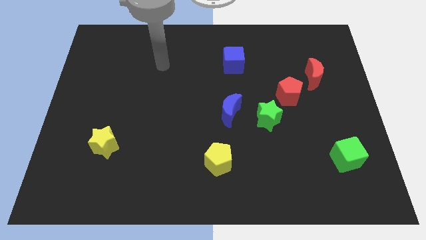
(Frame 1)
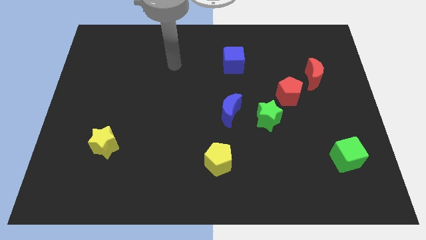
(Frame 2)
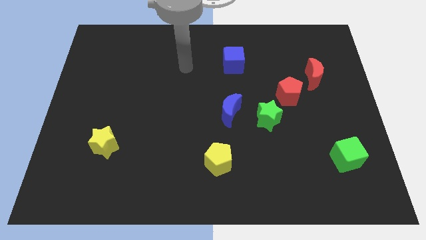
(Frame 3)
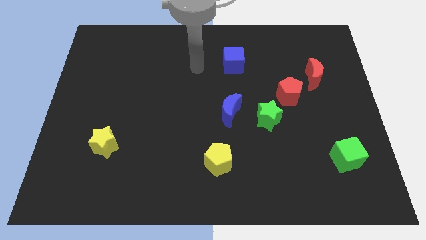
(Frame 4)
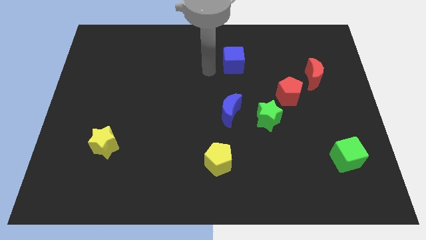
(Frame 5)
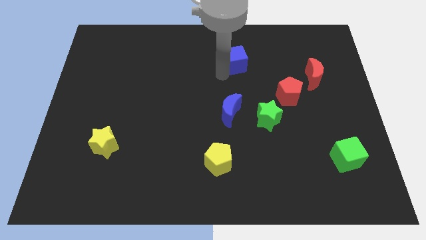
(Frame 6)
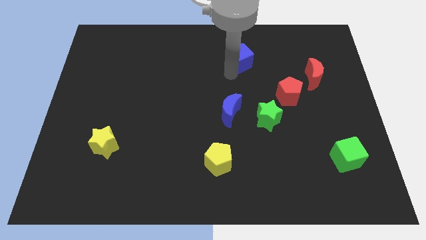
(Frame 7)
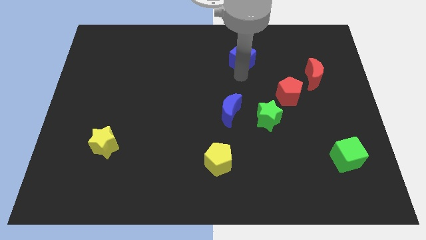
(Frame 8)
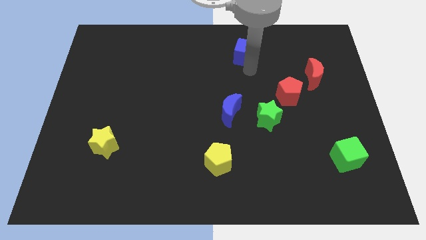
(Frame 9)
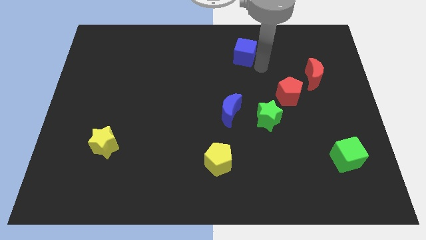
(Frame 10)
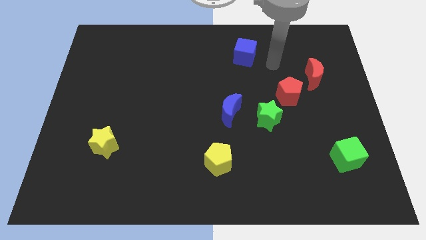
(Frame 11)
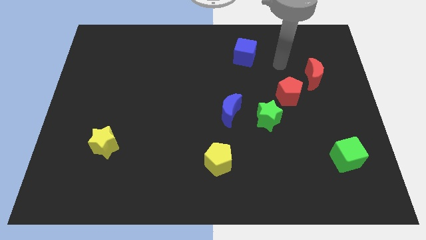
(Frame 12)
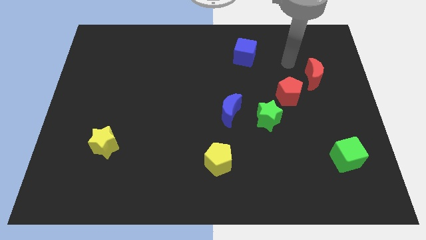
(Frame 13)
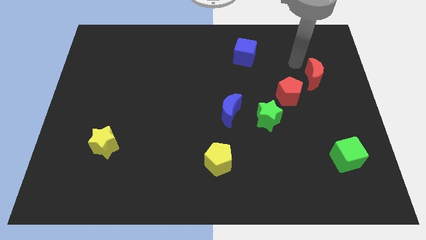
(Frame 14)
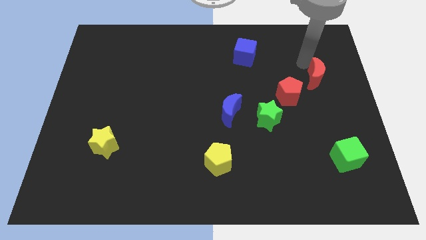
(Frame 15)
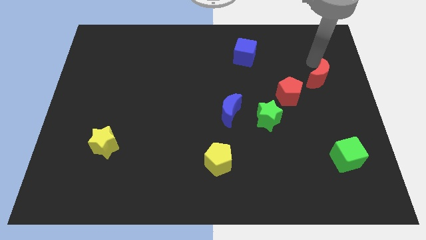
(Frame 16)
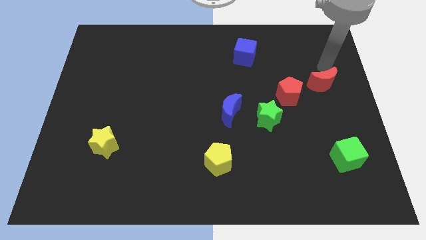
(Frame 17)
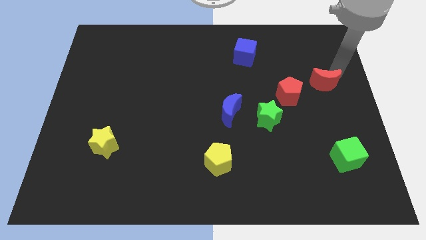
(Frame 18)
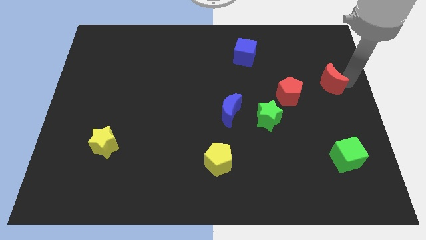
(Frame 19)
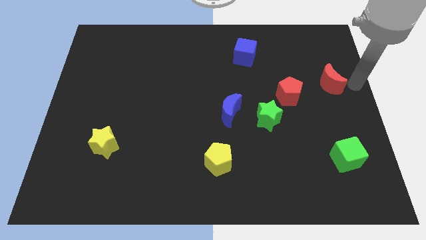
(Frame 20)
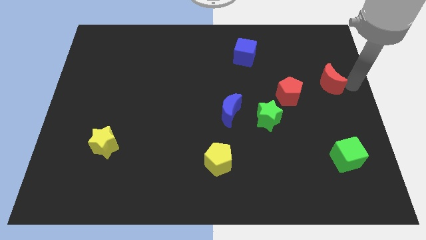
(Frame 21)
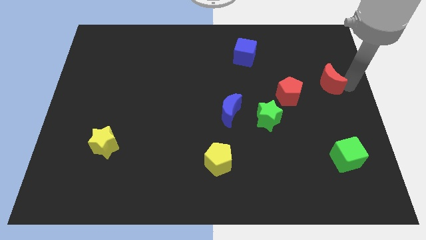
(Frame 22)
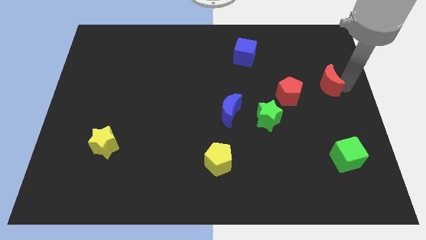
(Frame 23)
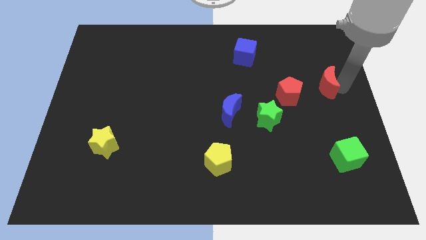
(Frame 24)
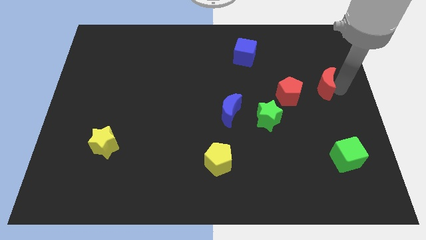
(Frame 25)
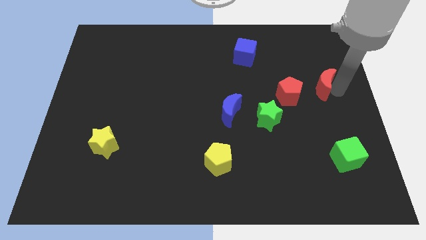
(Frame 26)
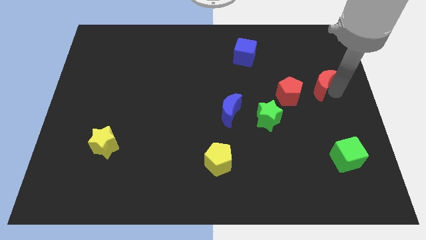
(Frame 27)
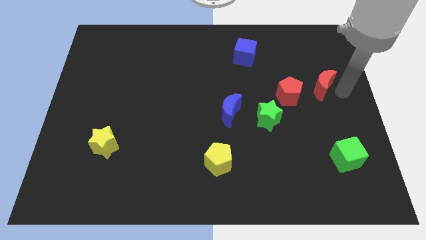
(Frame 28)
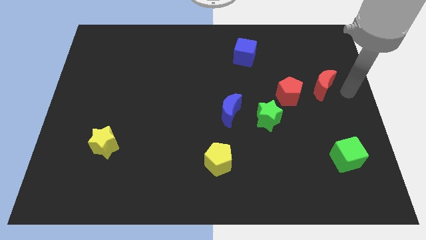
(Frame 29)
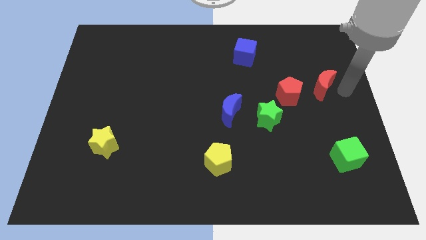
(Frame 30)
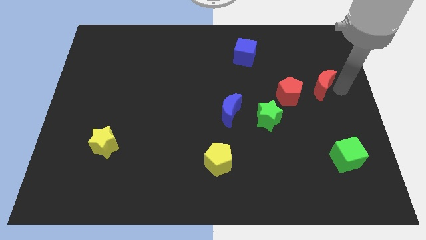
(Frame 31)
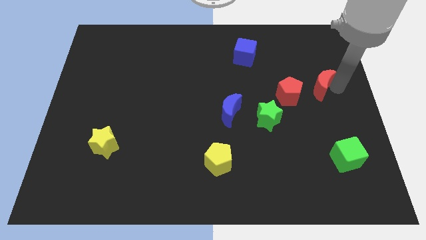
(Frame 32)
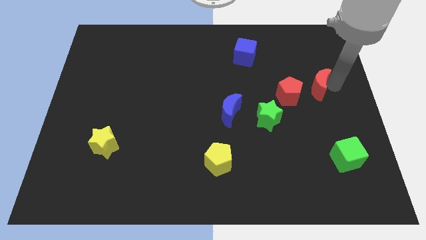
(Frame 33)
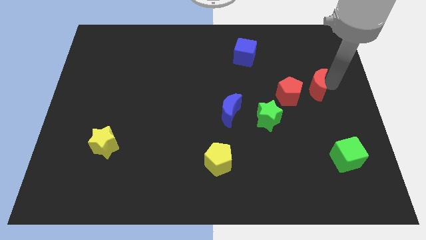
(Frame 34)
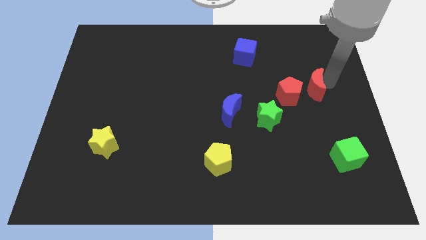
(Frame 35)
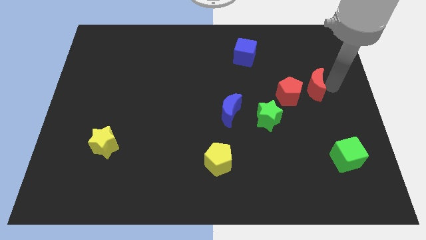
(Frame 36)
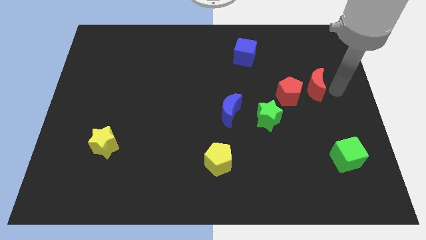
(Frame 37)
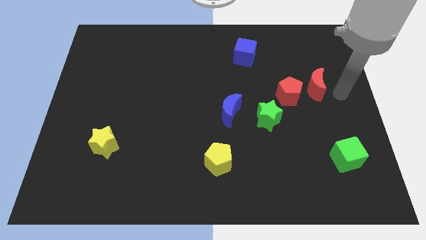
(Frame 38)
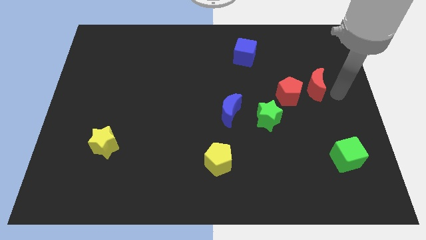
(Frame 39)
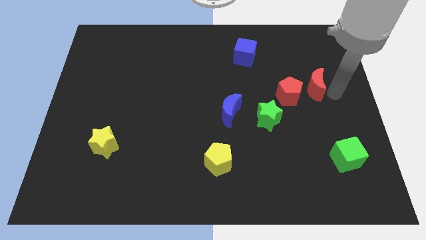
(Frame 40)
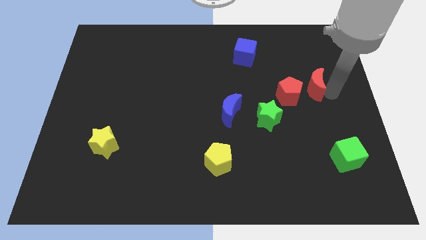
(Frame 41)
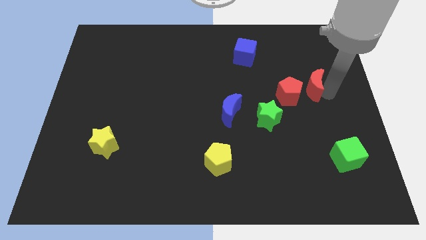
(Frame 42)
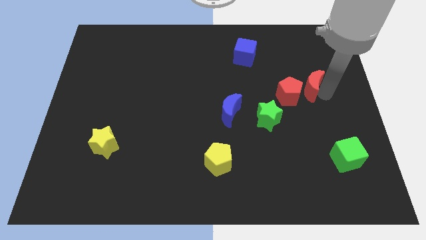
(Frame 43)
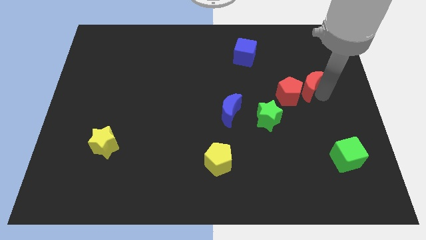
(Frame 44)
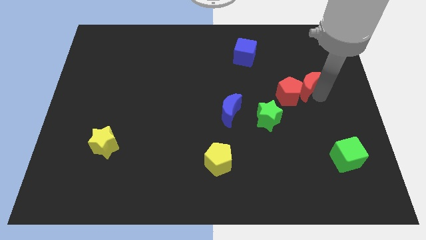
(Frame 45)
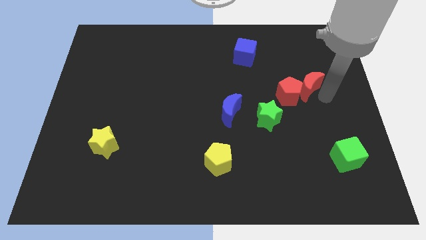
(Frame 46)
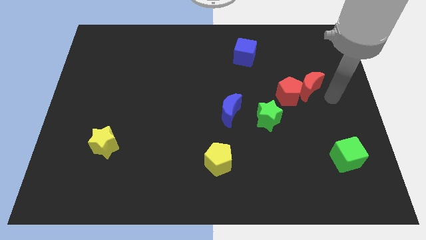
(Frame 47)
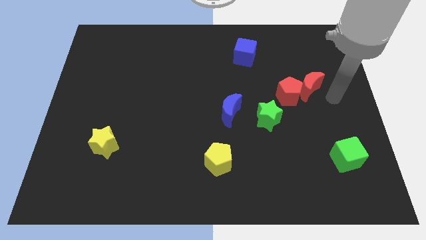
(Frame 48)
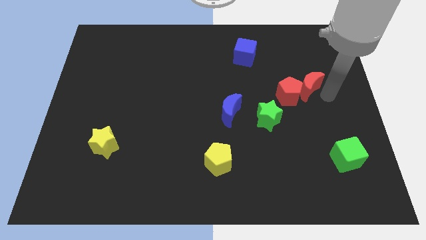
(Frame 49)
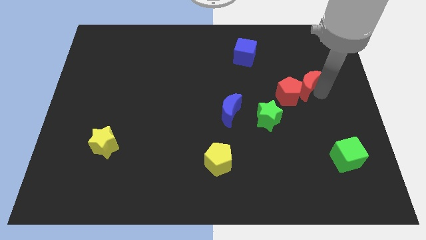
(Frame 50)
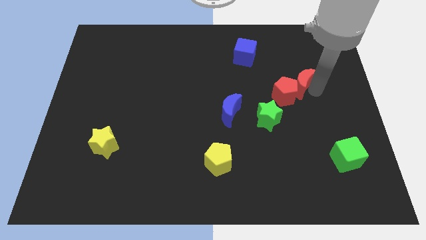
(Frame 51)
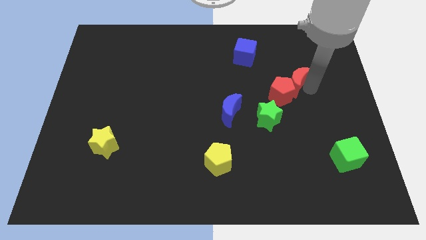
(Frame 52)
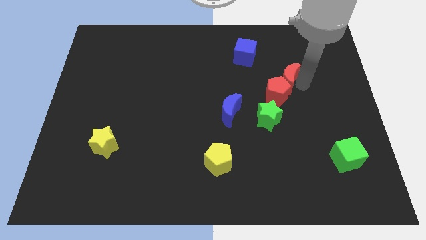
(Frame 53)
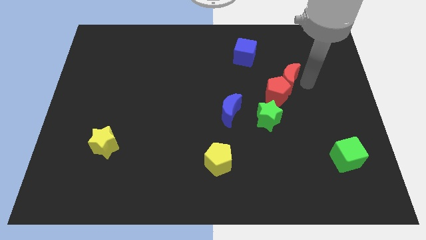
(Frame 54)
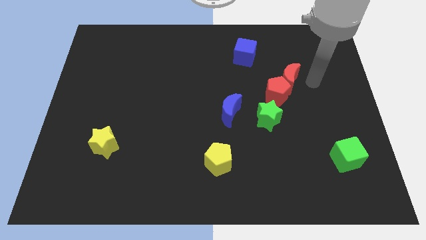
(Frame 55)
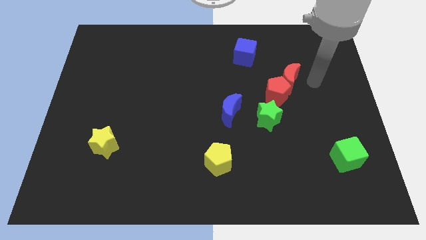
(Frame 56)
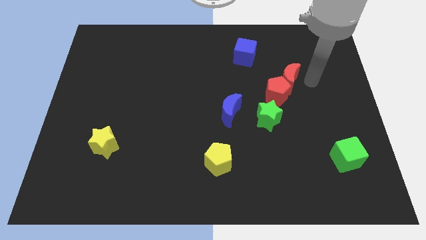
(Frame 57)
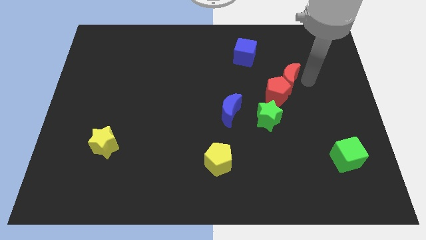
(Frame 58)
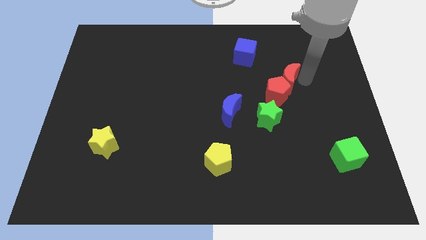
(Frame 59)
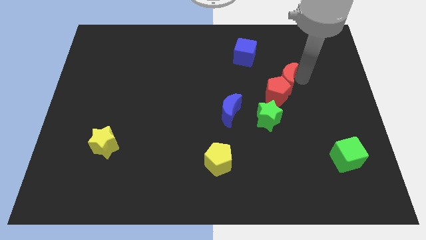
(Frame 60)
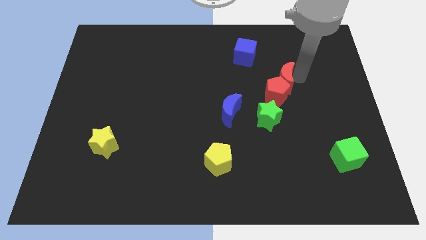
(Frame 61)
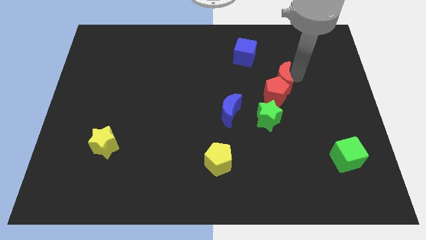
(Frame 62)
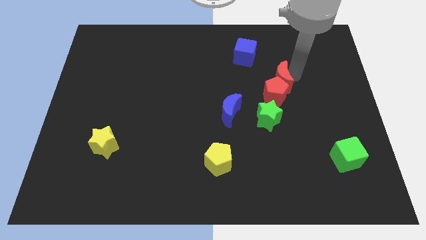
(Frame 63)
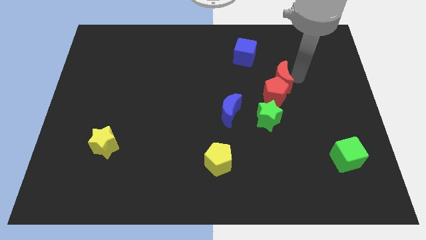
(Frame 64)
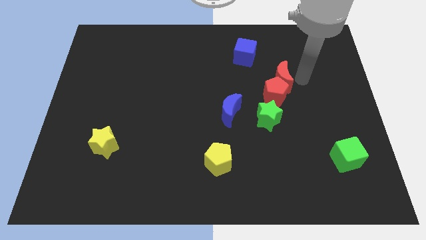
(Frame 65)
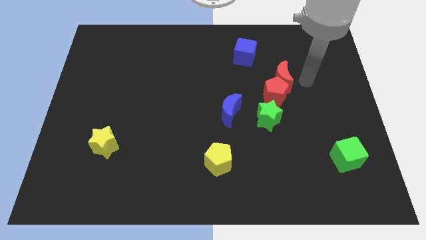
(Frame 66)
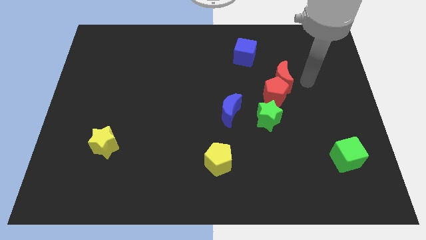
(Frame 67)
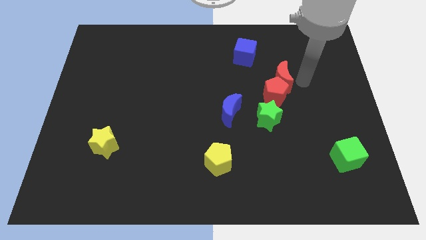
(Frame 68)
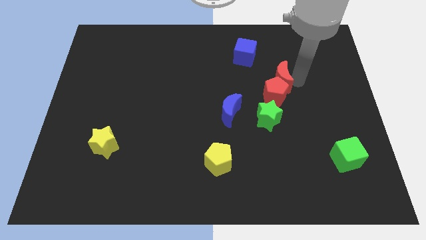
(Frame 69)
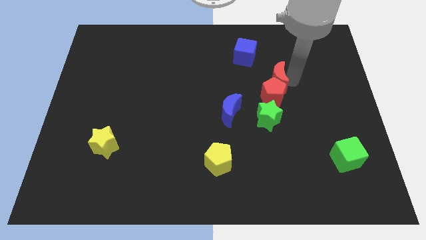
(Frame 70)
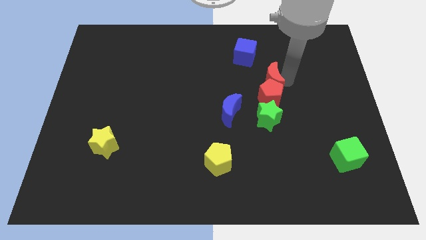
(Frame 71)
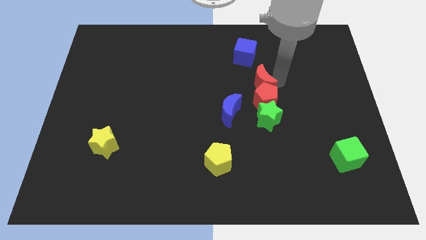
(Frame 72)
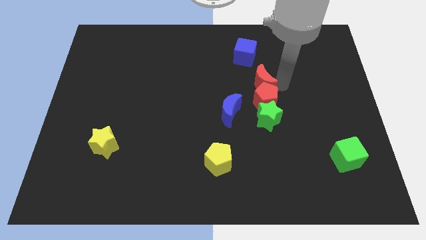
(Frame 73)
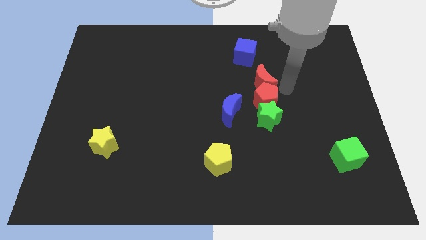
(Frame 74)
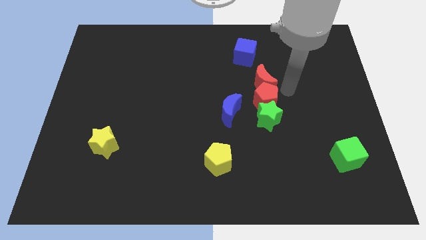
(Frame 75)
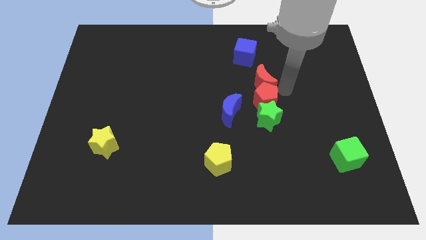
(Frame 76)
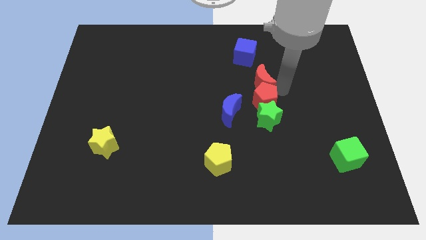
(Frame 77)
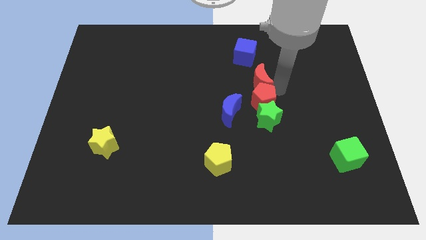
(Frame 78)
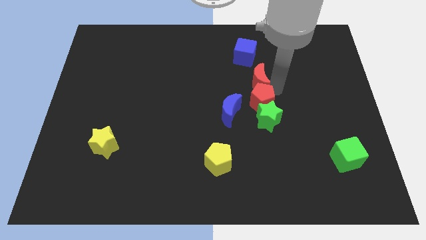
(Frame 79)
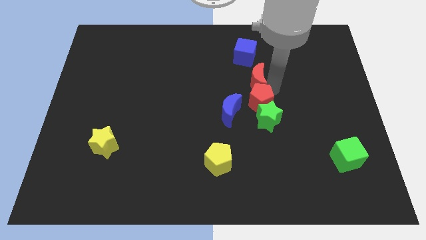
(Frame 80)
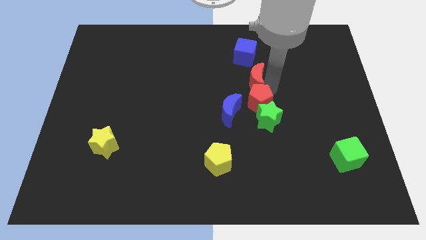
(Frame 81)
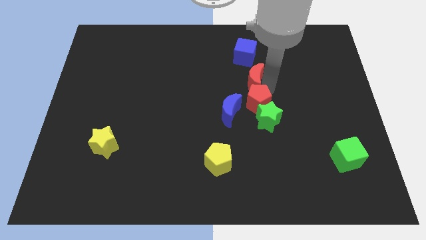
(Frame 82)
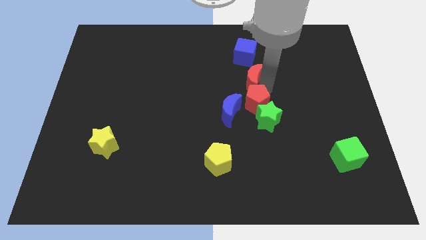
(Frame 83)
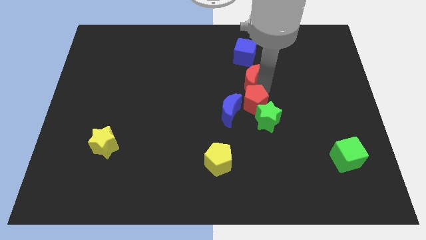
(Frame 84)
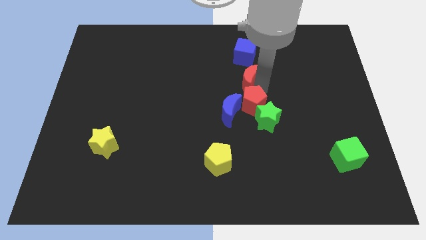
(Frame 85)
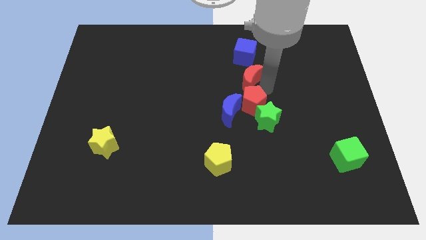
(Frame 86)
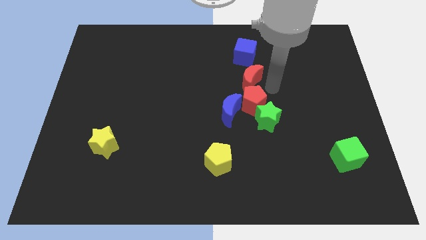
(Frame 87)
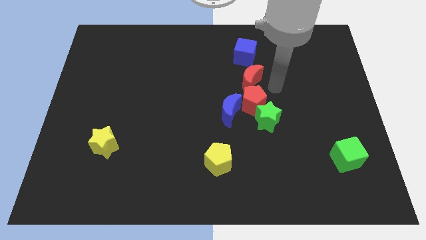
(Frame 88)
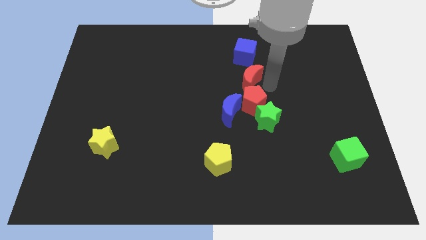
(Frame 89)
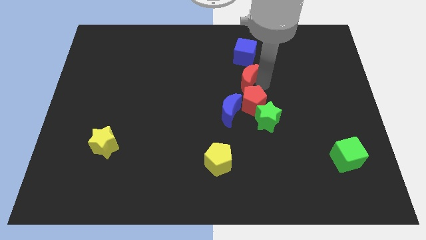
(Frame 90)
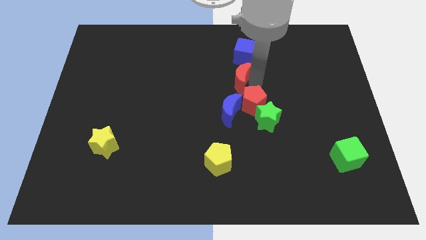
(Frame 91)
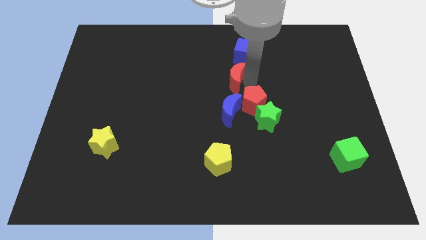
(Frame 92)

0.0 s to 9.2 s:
slide the red moon left
